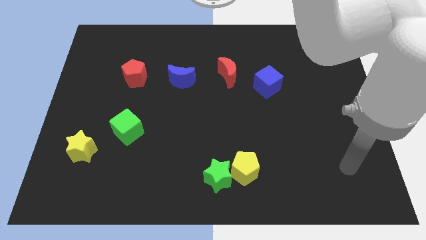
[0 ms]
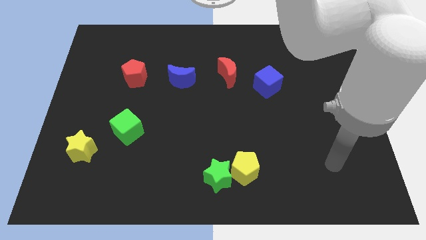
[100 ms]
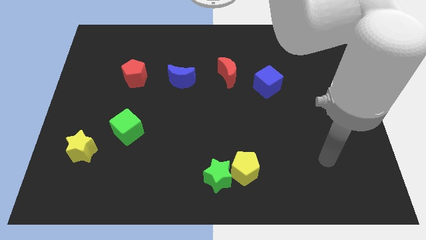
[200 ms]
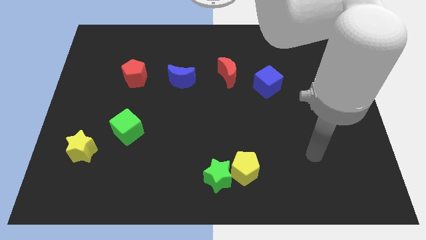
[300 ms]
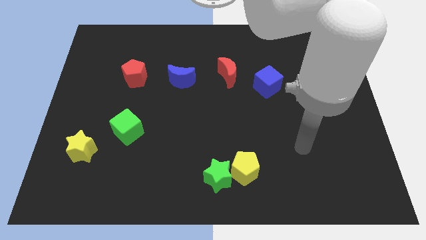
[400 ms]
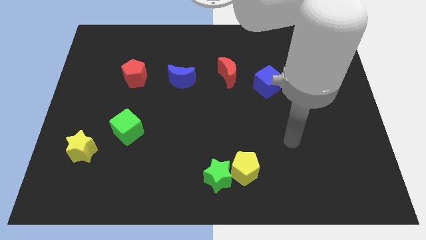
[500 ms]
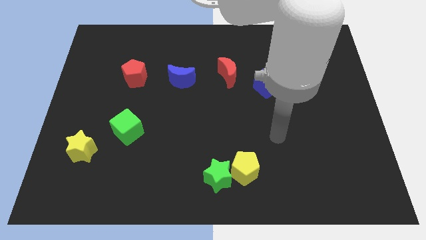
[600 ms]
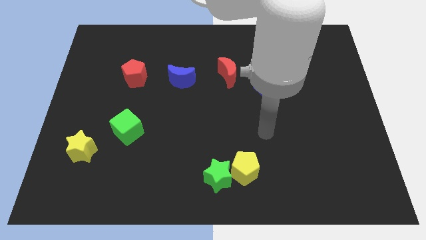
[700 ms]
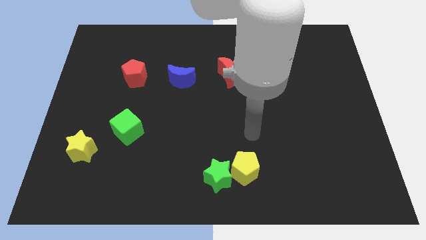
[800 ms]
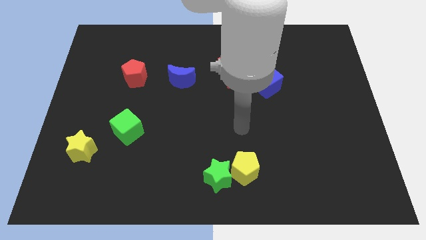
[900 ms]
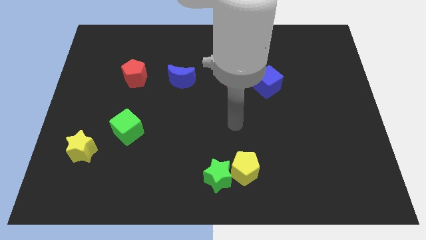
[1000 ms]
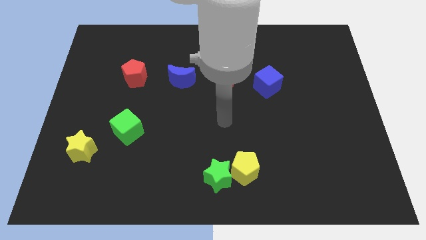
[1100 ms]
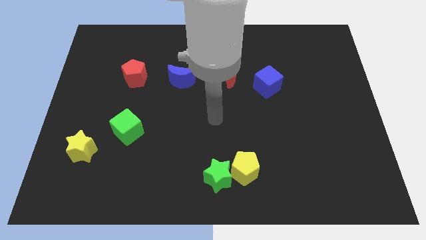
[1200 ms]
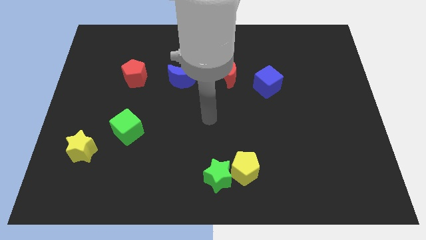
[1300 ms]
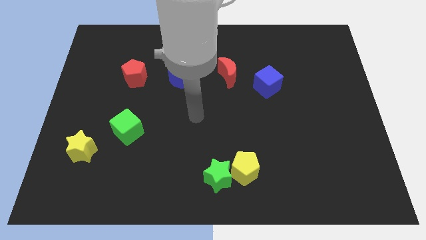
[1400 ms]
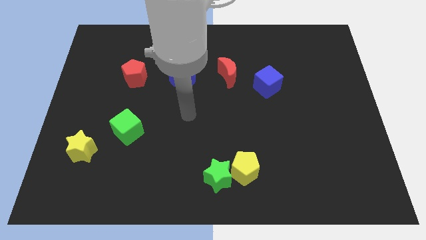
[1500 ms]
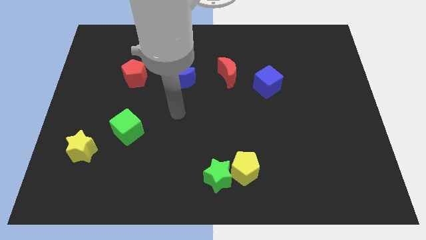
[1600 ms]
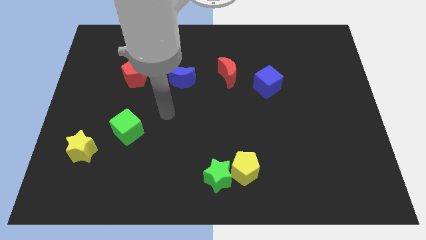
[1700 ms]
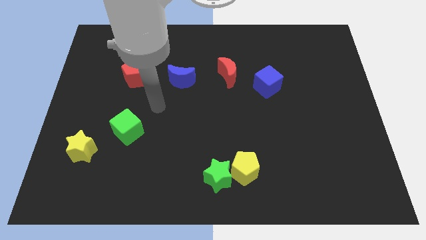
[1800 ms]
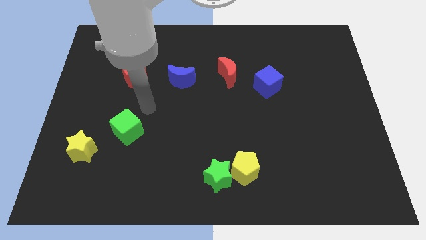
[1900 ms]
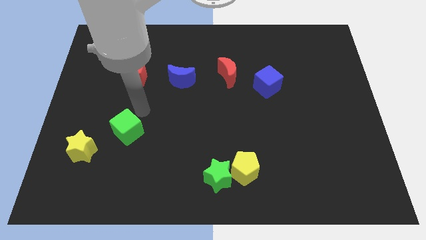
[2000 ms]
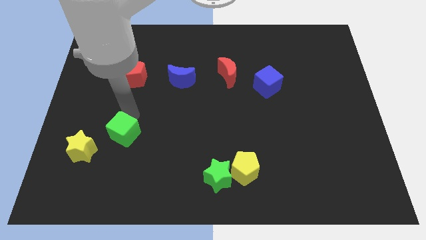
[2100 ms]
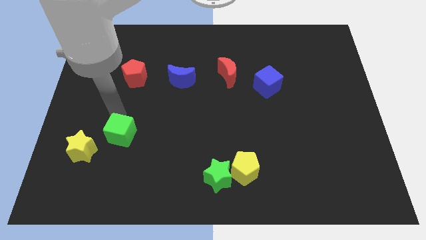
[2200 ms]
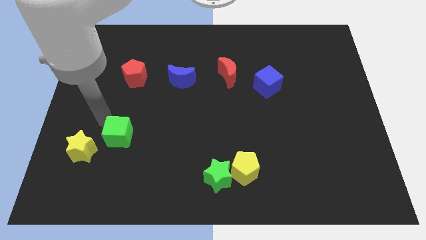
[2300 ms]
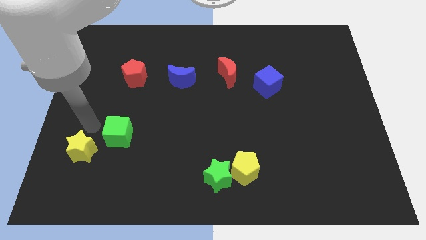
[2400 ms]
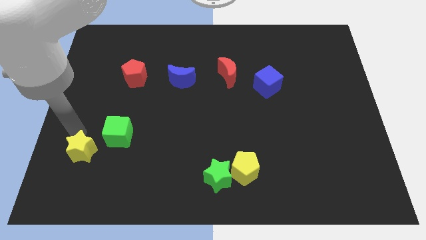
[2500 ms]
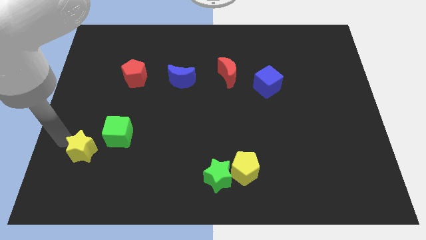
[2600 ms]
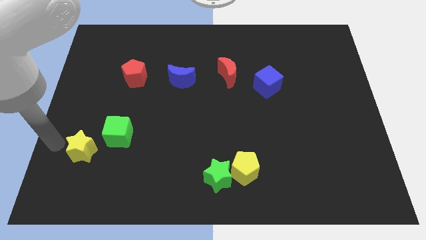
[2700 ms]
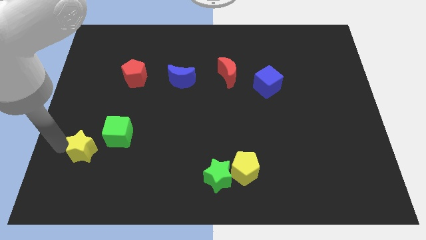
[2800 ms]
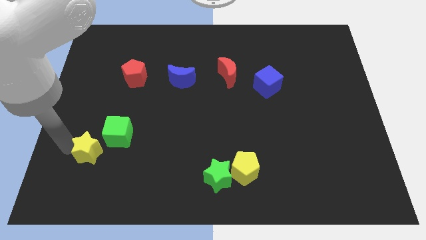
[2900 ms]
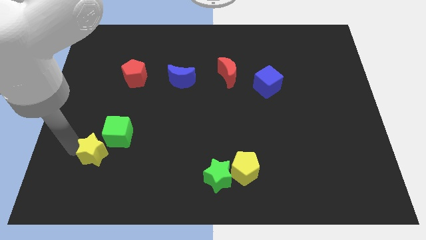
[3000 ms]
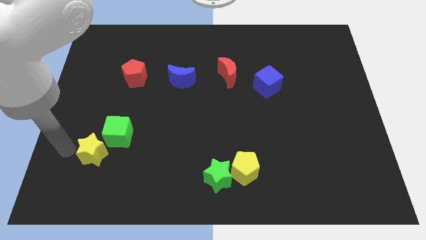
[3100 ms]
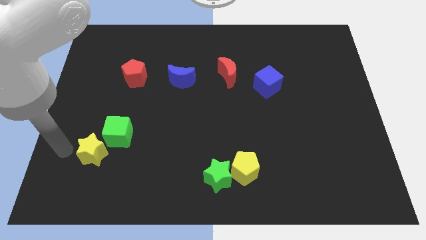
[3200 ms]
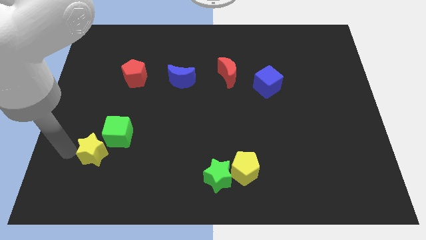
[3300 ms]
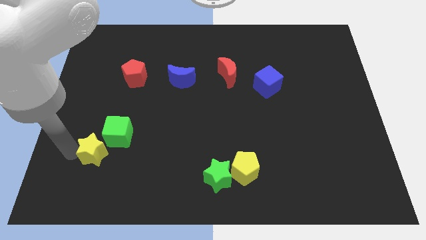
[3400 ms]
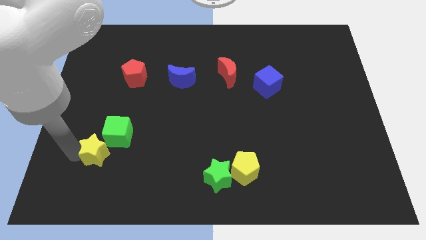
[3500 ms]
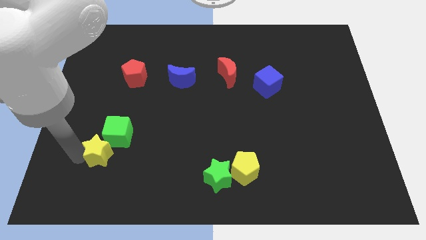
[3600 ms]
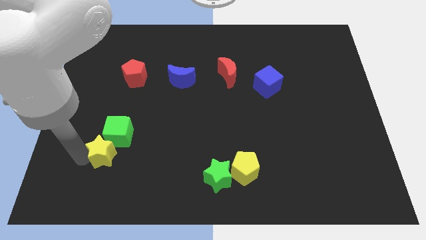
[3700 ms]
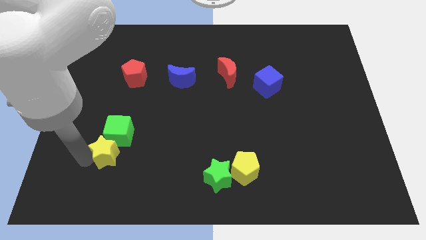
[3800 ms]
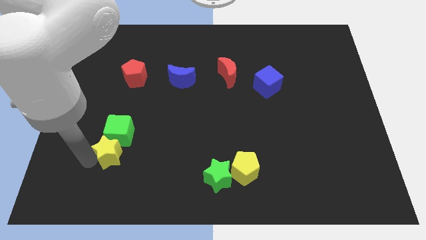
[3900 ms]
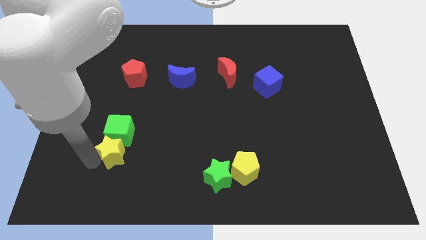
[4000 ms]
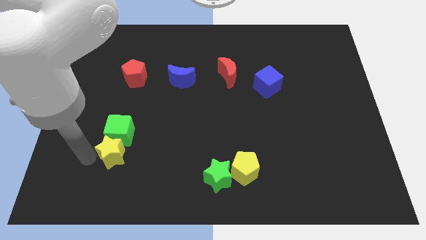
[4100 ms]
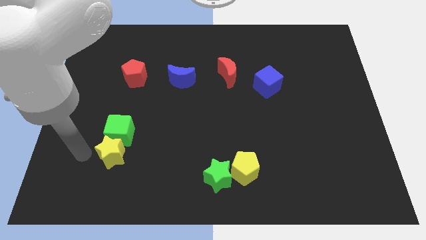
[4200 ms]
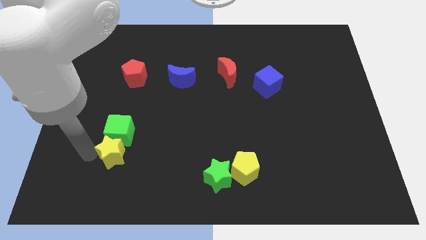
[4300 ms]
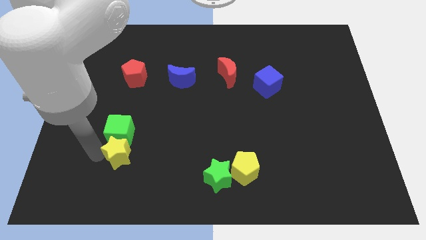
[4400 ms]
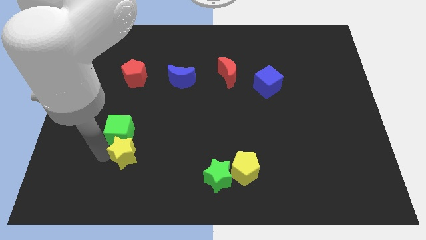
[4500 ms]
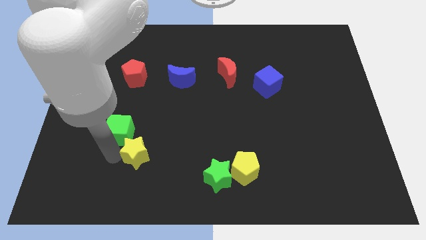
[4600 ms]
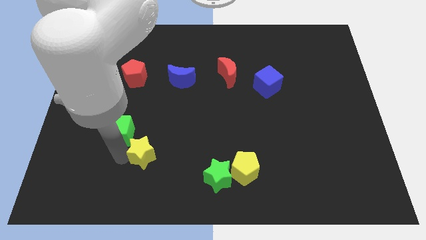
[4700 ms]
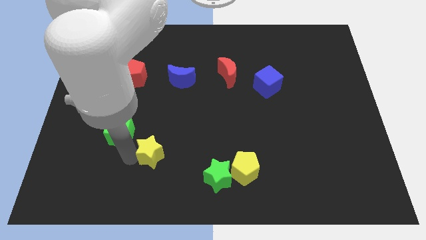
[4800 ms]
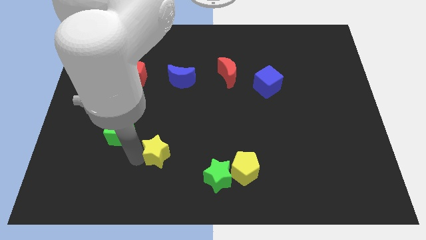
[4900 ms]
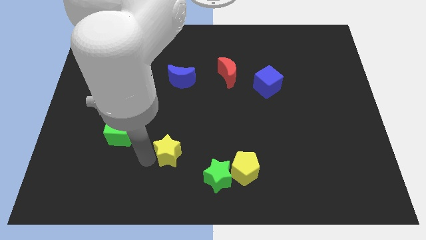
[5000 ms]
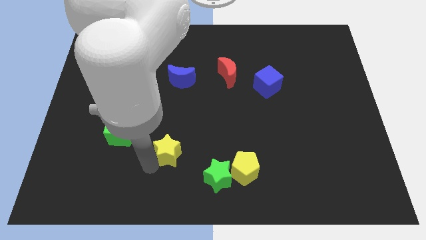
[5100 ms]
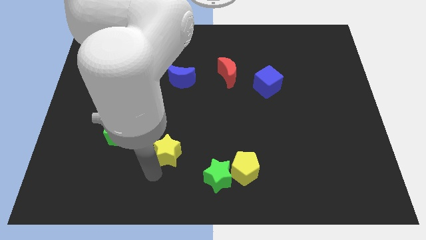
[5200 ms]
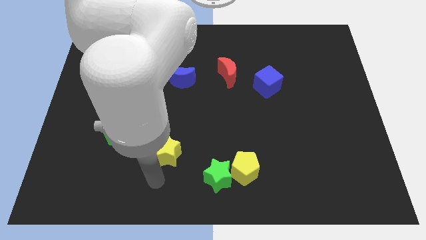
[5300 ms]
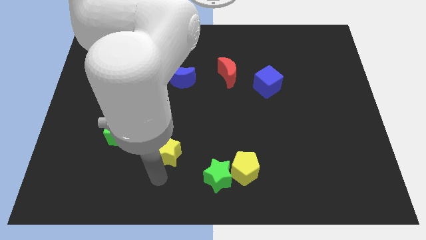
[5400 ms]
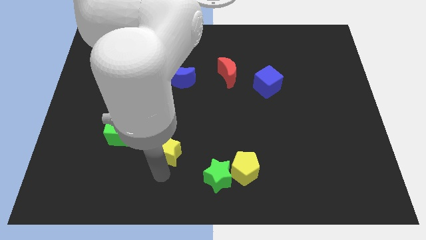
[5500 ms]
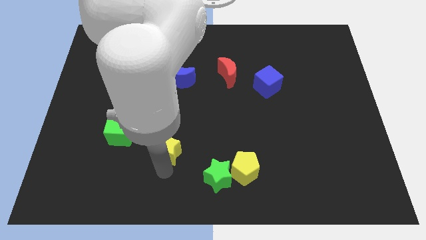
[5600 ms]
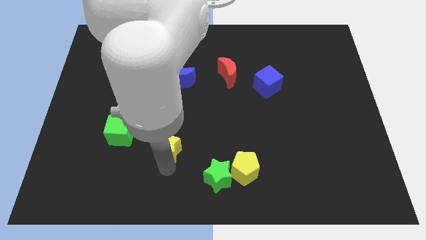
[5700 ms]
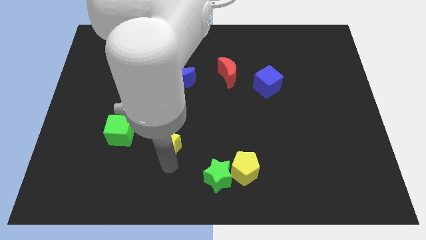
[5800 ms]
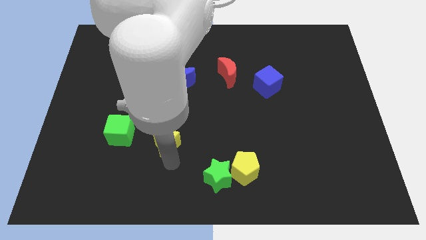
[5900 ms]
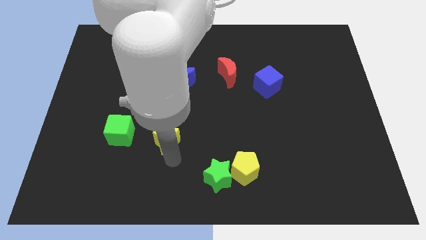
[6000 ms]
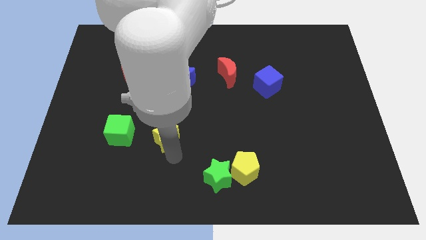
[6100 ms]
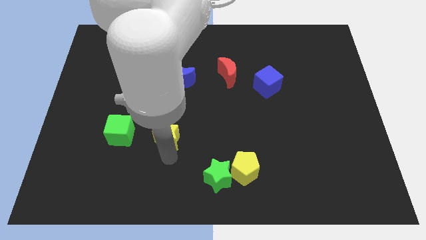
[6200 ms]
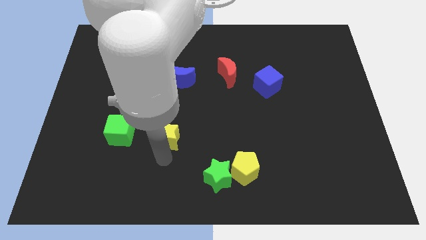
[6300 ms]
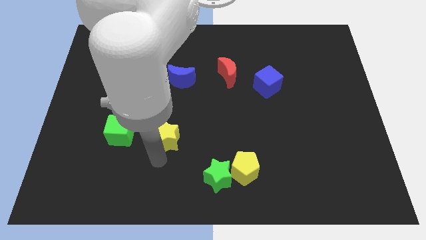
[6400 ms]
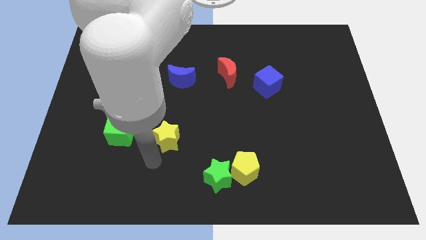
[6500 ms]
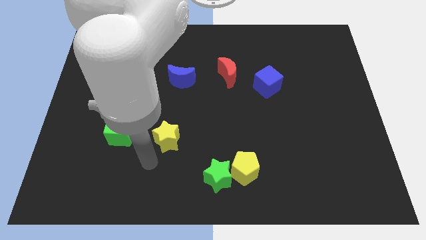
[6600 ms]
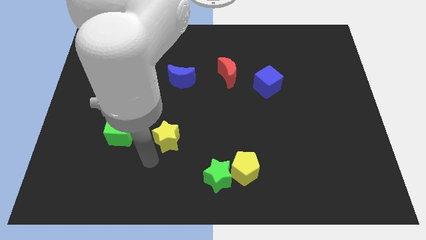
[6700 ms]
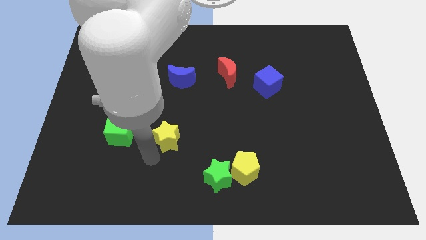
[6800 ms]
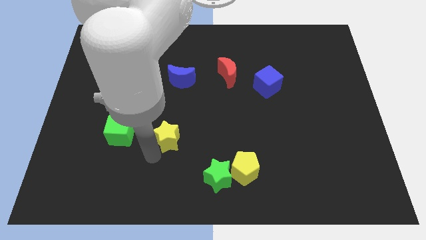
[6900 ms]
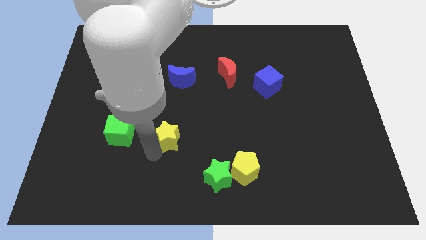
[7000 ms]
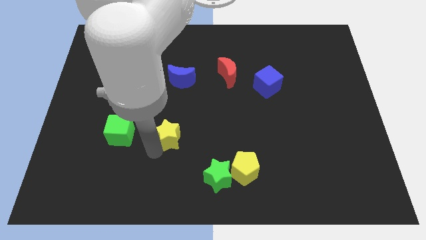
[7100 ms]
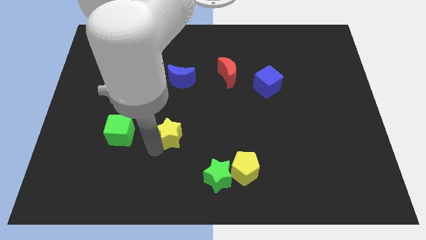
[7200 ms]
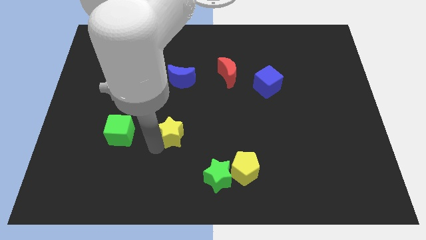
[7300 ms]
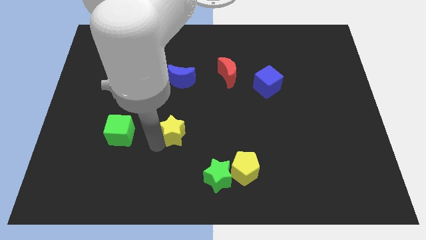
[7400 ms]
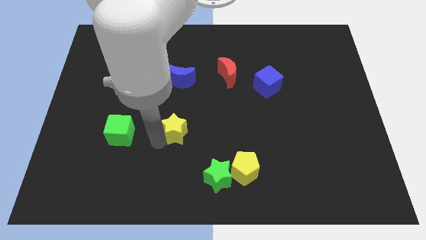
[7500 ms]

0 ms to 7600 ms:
move the yellow star to the center
